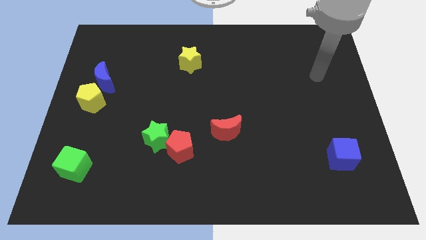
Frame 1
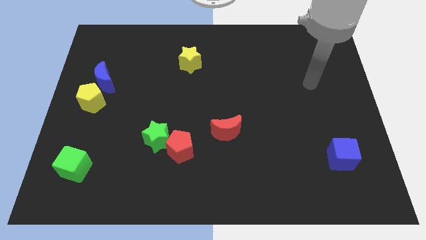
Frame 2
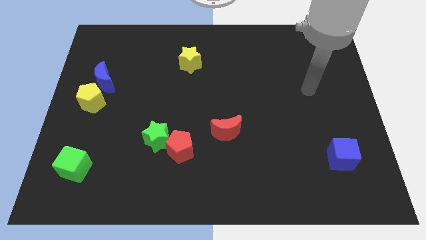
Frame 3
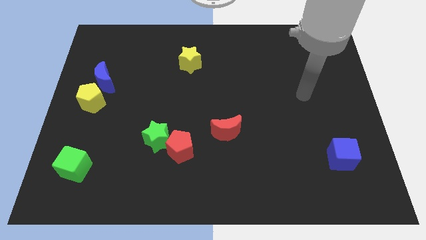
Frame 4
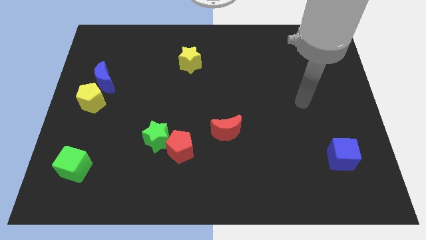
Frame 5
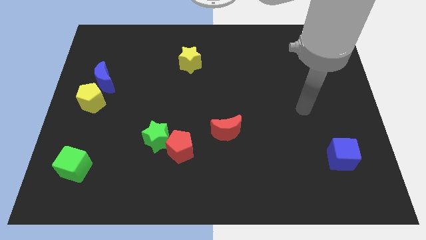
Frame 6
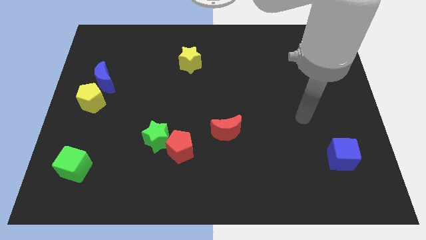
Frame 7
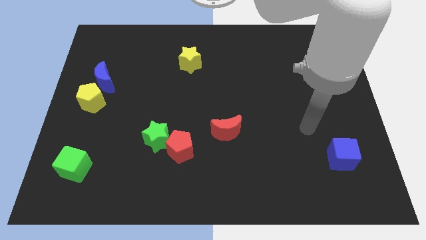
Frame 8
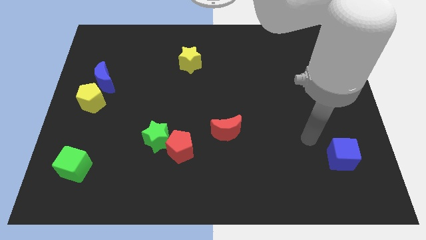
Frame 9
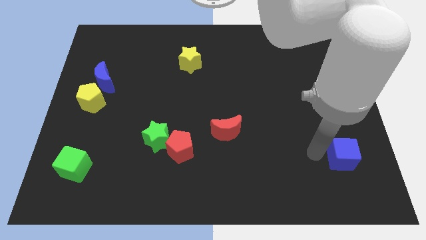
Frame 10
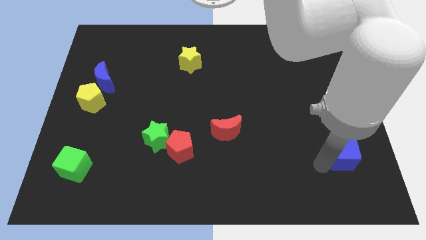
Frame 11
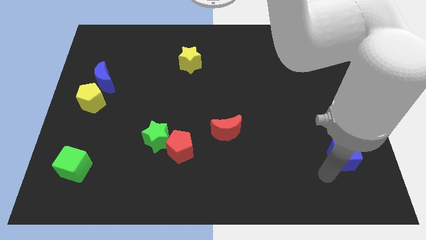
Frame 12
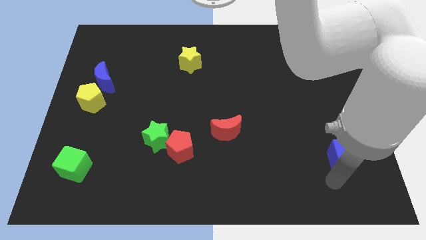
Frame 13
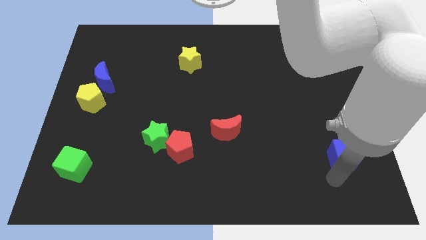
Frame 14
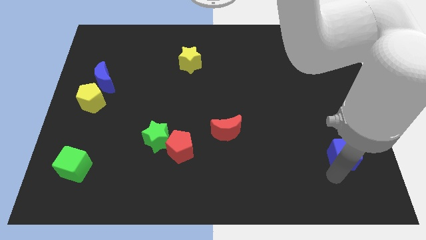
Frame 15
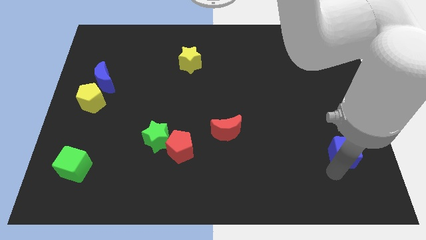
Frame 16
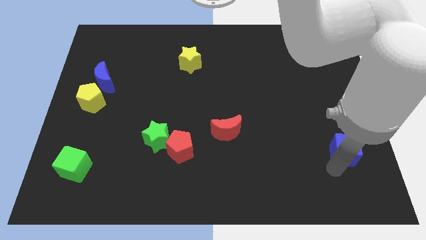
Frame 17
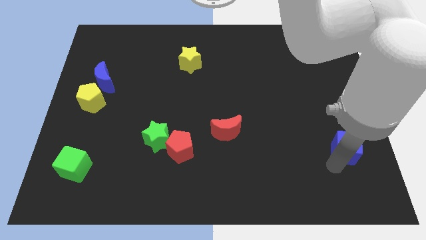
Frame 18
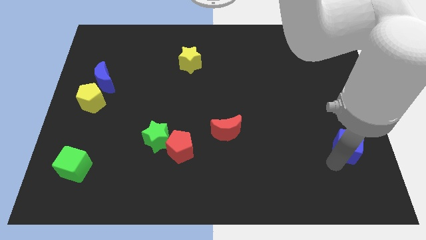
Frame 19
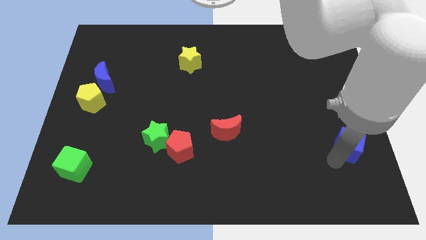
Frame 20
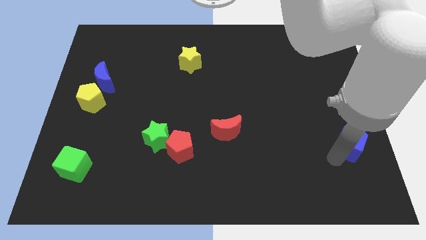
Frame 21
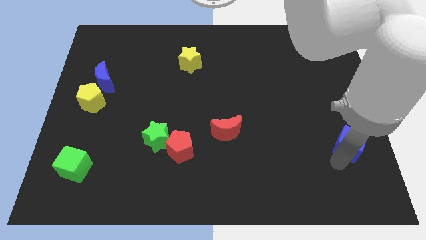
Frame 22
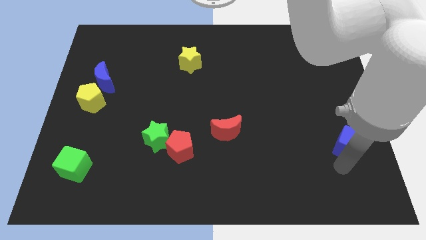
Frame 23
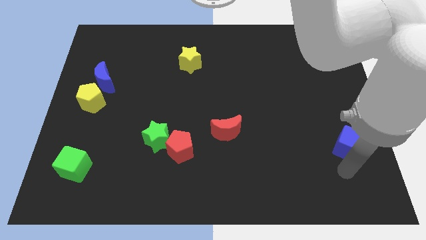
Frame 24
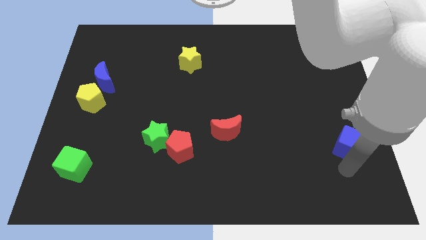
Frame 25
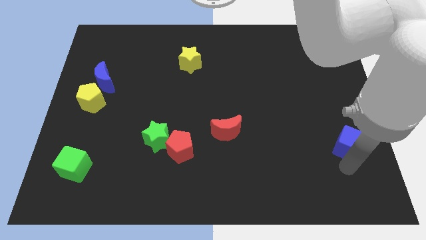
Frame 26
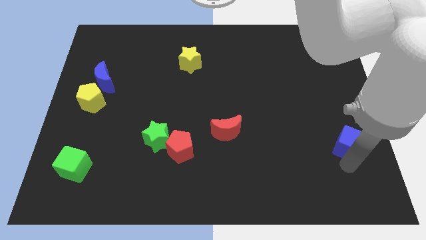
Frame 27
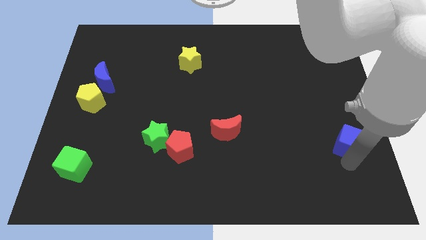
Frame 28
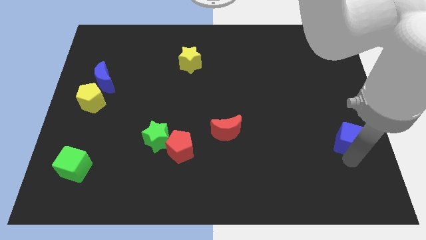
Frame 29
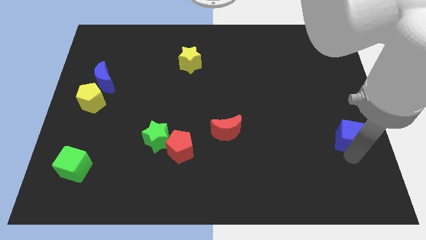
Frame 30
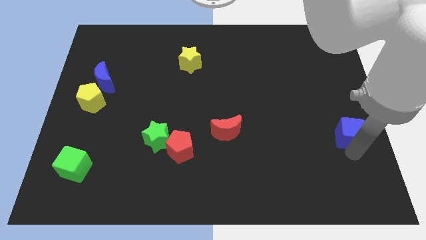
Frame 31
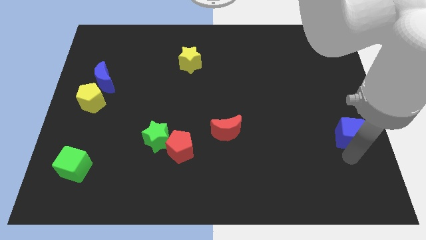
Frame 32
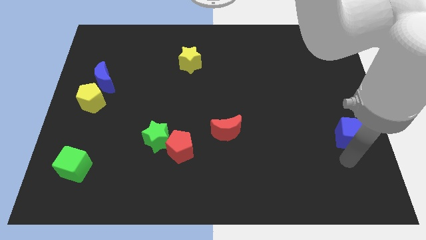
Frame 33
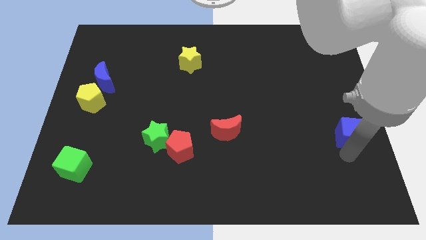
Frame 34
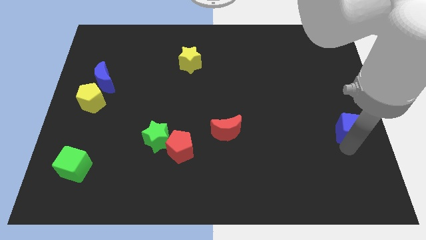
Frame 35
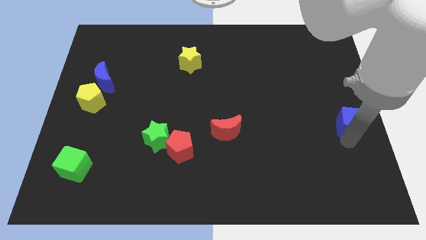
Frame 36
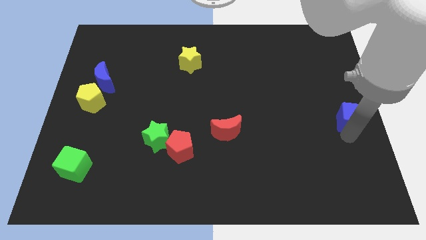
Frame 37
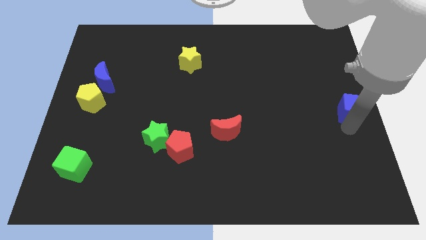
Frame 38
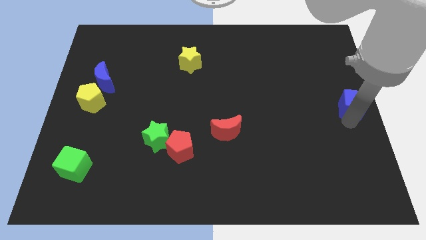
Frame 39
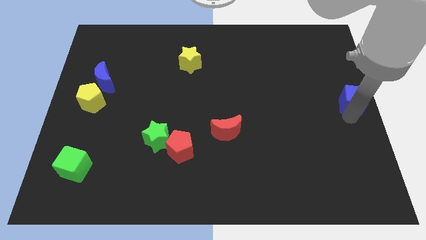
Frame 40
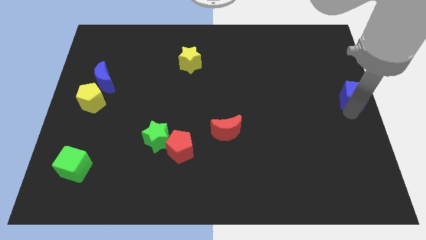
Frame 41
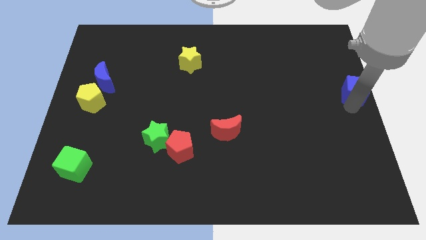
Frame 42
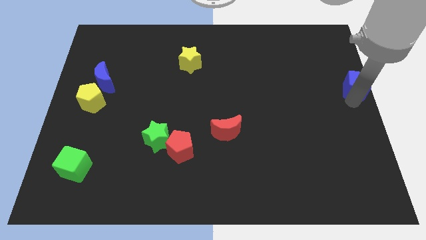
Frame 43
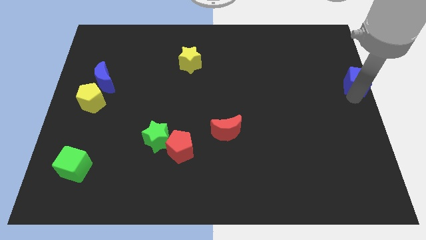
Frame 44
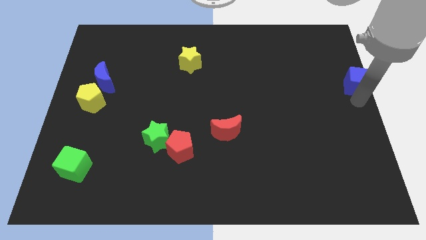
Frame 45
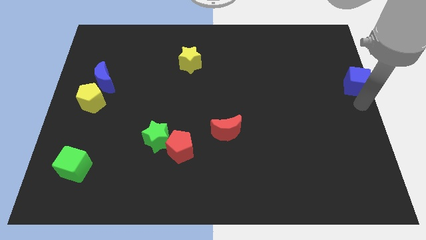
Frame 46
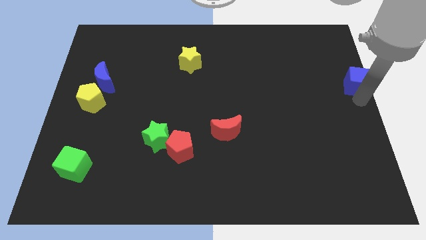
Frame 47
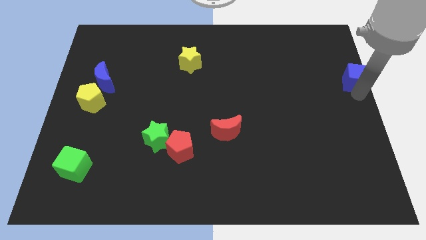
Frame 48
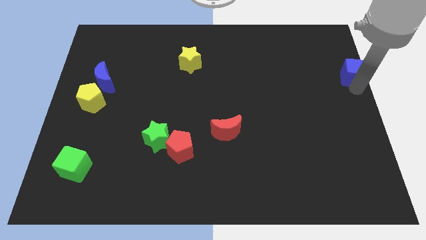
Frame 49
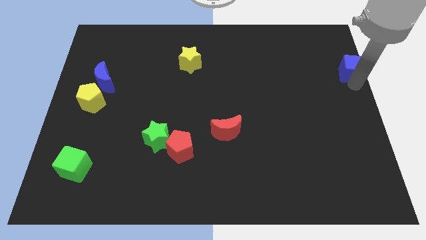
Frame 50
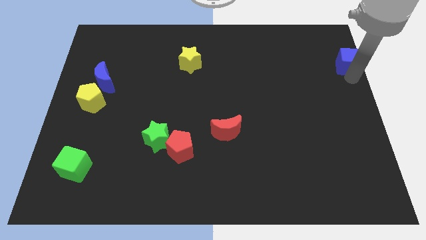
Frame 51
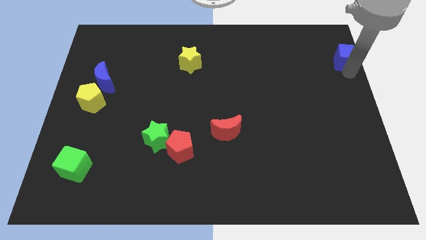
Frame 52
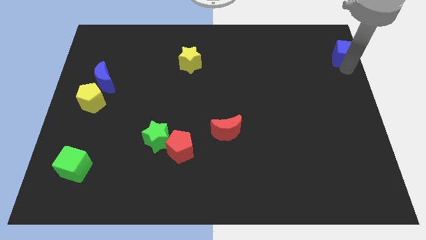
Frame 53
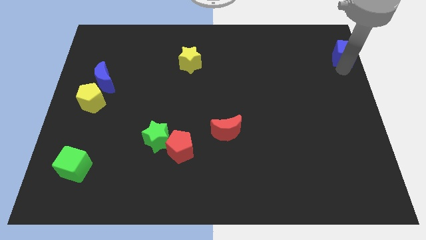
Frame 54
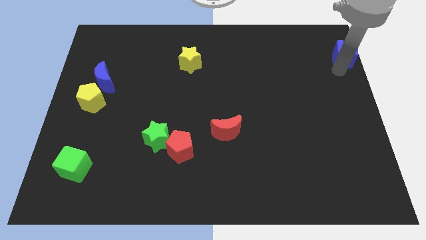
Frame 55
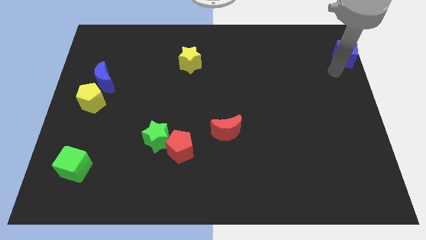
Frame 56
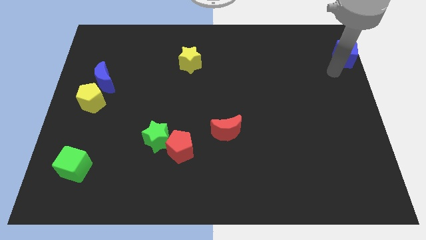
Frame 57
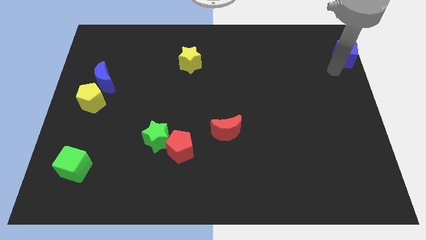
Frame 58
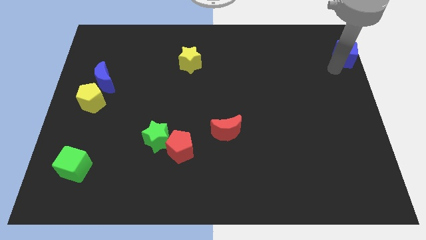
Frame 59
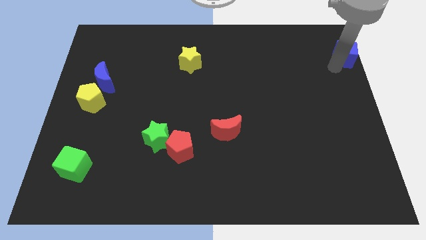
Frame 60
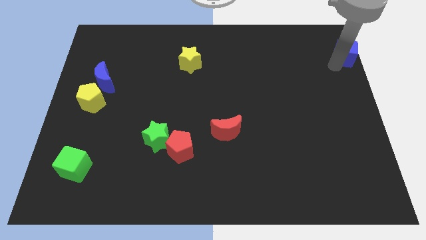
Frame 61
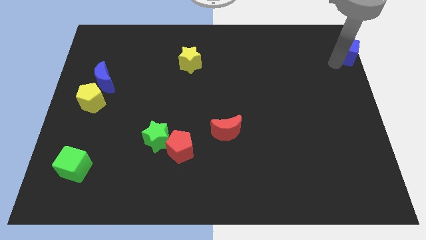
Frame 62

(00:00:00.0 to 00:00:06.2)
slide the blue cube to the top right

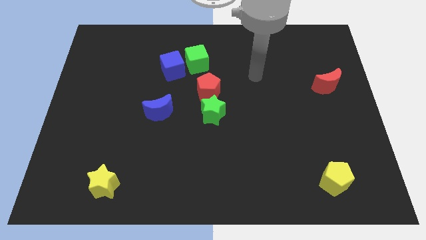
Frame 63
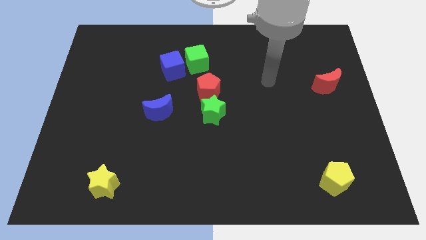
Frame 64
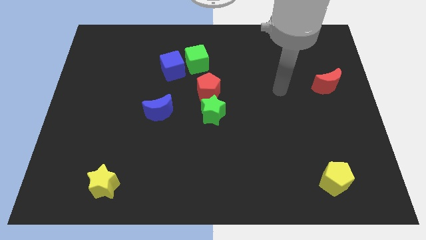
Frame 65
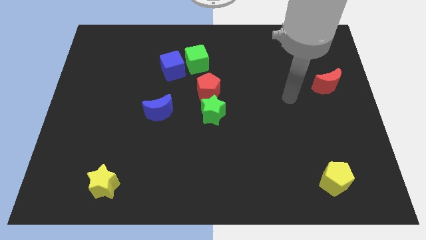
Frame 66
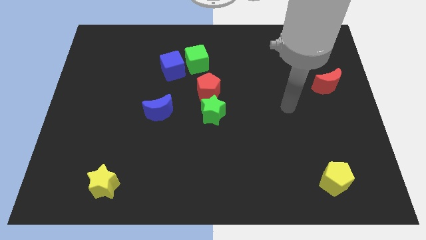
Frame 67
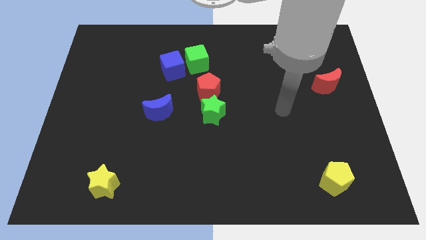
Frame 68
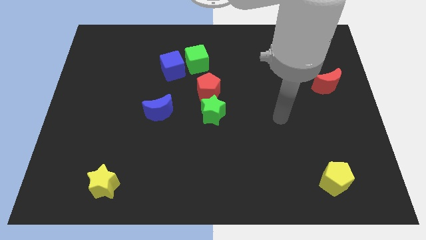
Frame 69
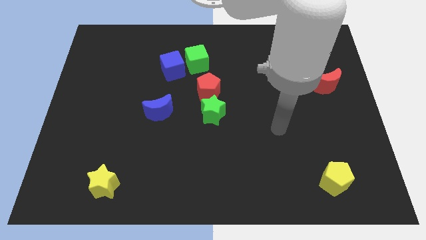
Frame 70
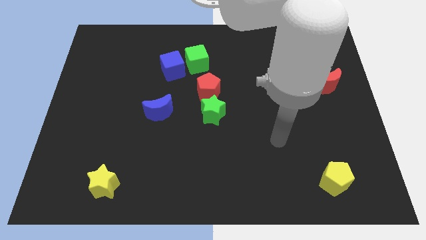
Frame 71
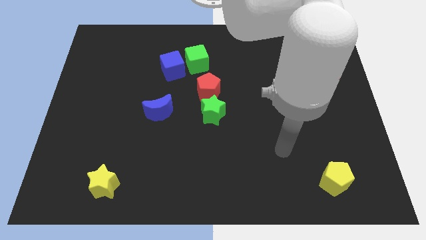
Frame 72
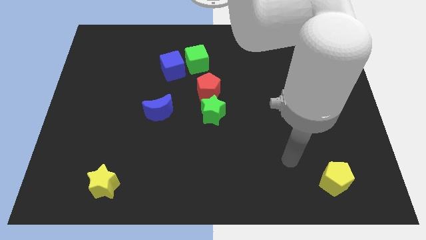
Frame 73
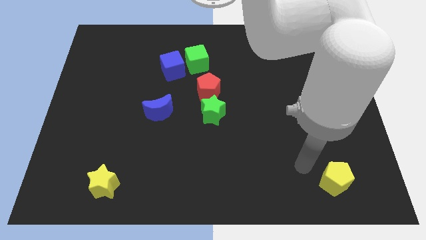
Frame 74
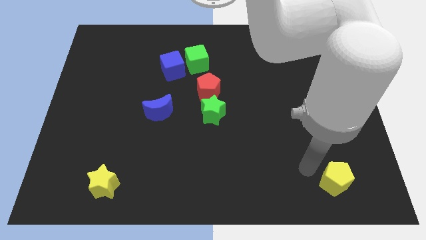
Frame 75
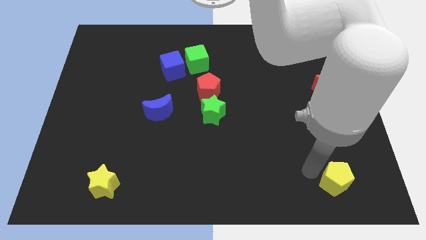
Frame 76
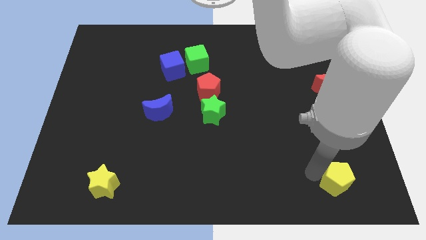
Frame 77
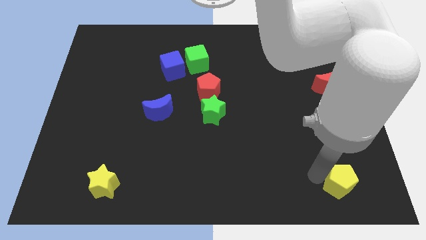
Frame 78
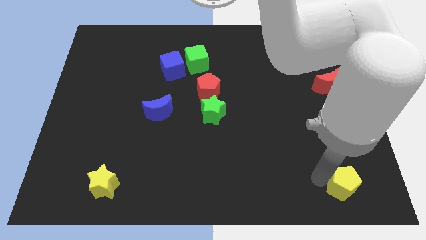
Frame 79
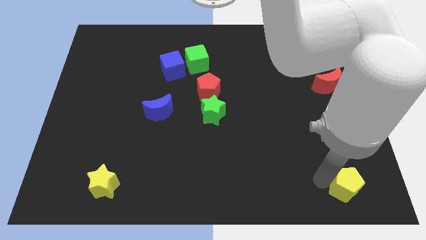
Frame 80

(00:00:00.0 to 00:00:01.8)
push the yellow pentagon to the bottom right of the board
